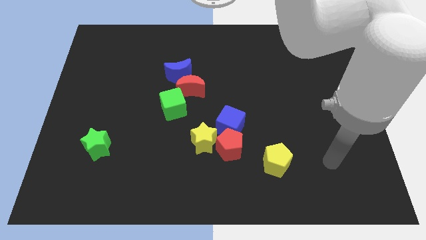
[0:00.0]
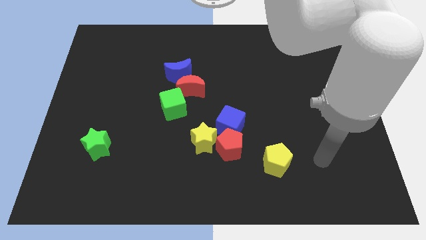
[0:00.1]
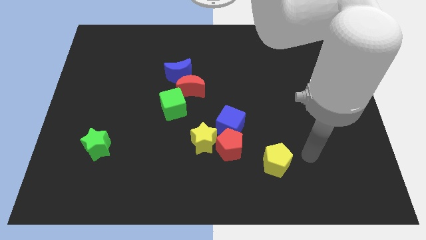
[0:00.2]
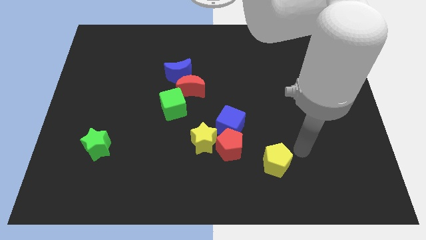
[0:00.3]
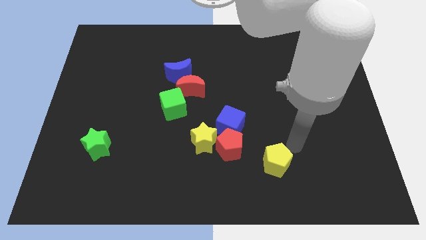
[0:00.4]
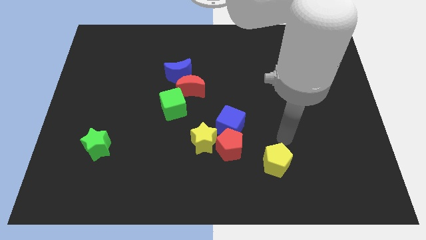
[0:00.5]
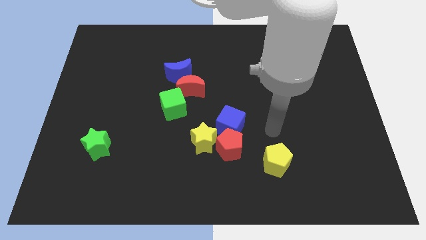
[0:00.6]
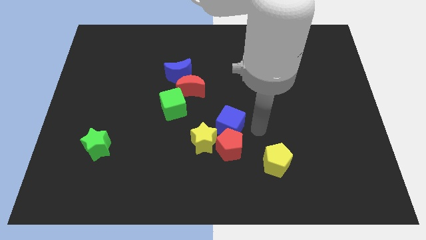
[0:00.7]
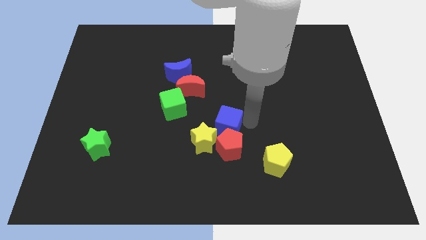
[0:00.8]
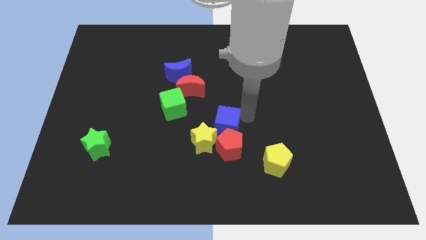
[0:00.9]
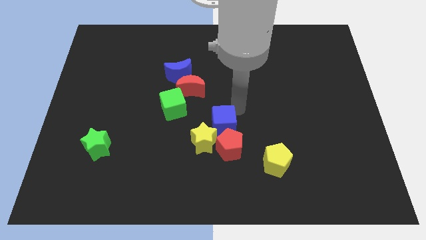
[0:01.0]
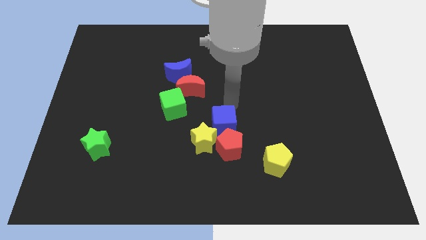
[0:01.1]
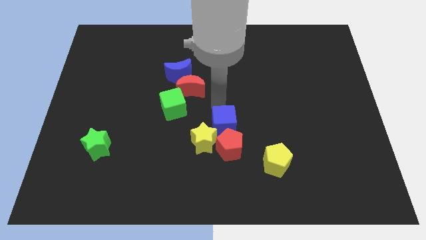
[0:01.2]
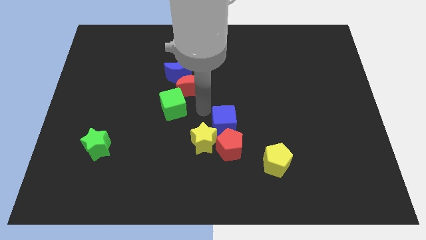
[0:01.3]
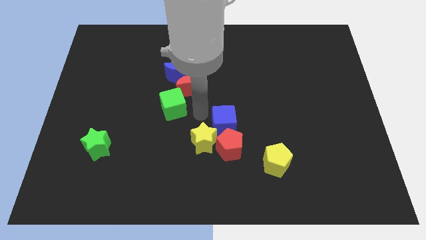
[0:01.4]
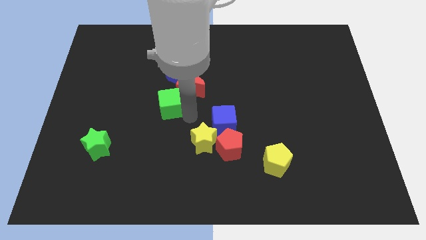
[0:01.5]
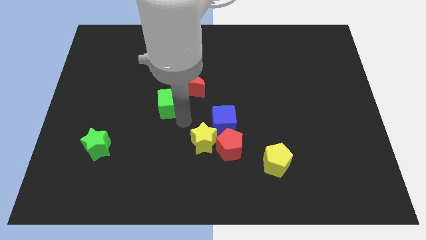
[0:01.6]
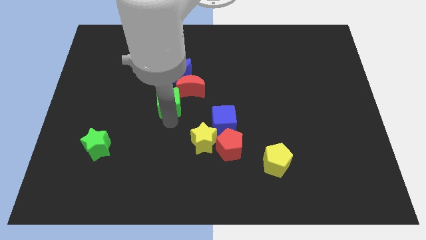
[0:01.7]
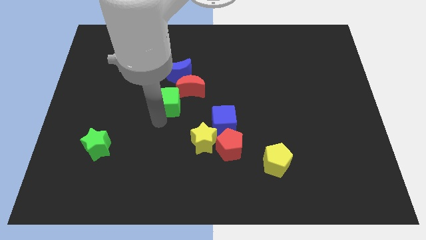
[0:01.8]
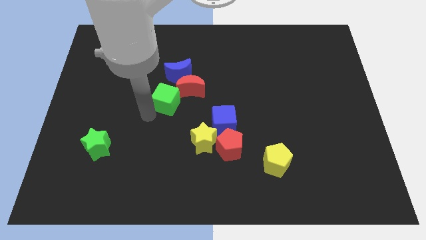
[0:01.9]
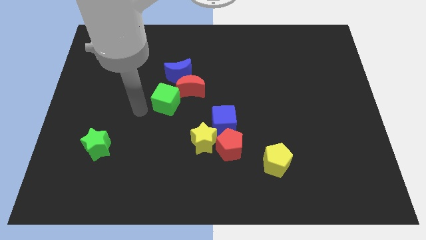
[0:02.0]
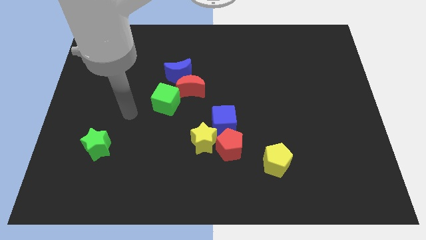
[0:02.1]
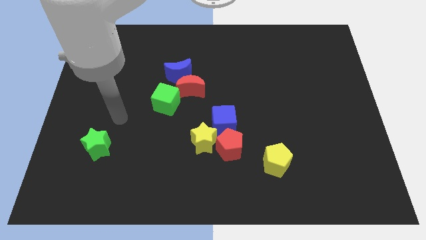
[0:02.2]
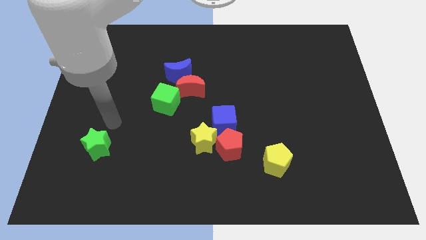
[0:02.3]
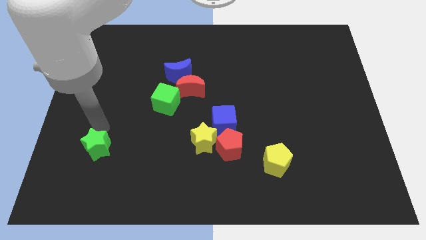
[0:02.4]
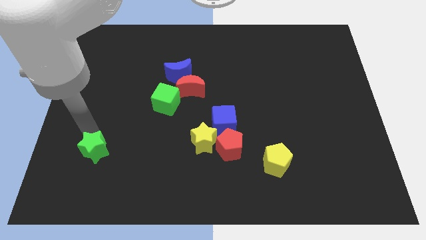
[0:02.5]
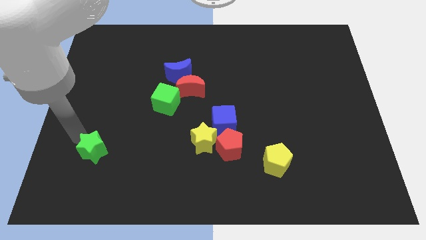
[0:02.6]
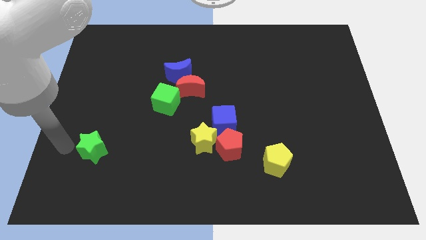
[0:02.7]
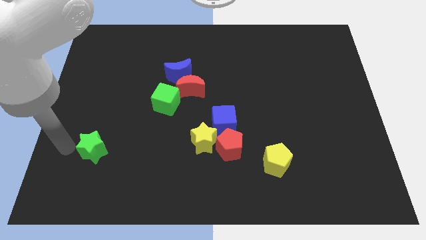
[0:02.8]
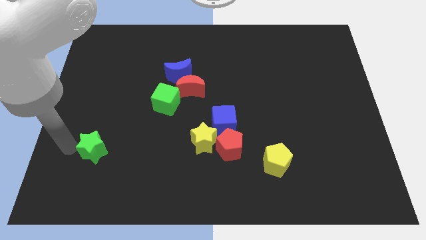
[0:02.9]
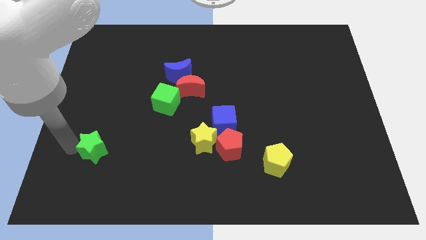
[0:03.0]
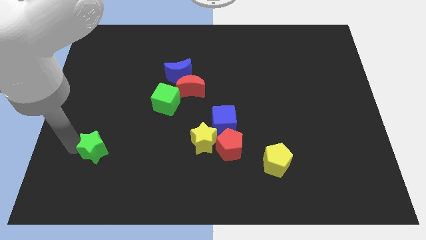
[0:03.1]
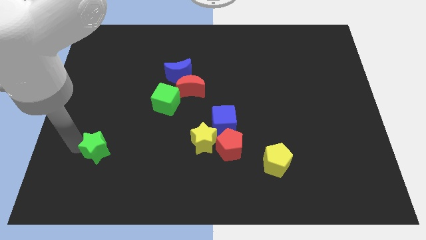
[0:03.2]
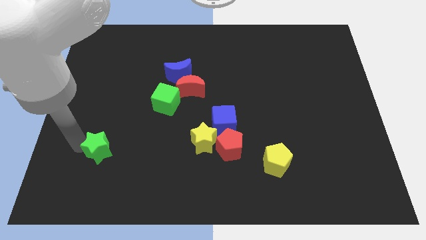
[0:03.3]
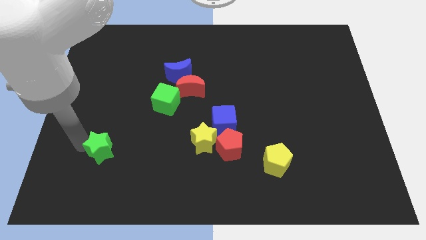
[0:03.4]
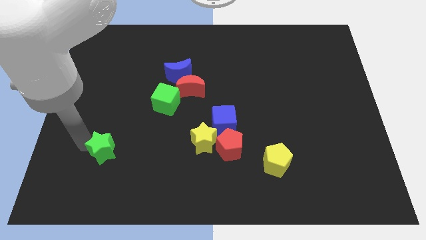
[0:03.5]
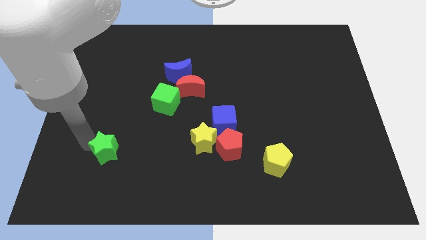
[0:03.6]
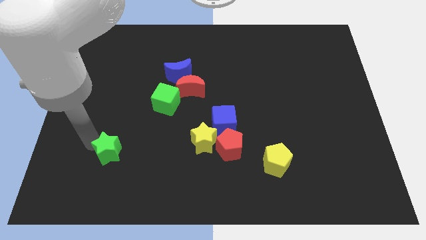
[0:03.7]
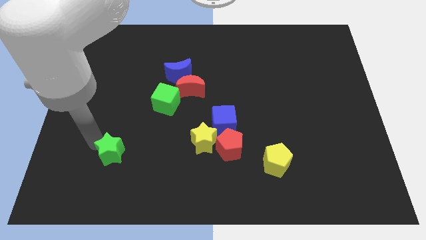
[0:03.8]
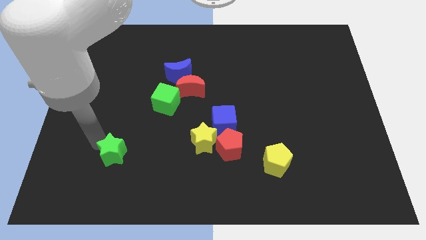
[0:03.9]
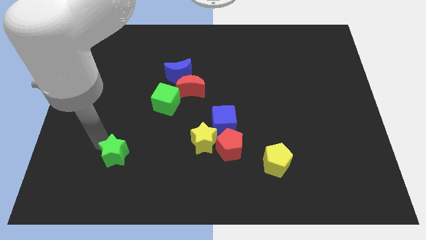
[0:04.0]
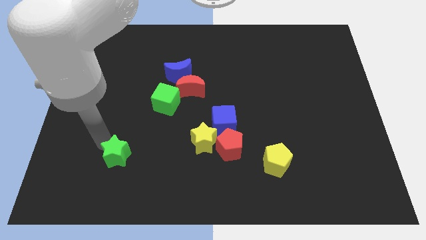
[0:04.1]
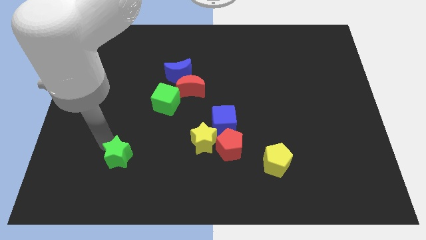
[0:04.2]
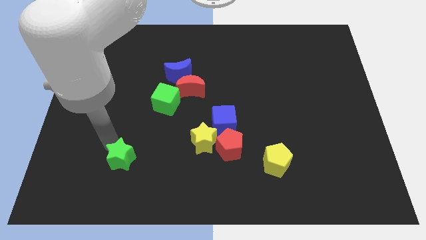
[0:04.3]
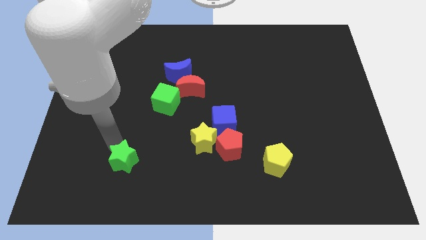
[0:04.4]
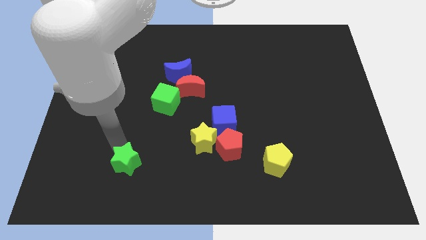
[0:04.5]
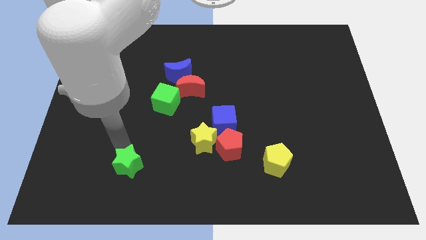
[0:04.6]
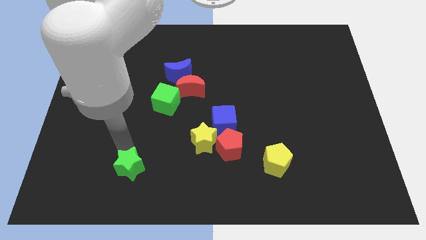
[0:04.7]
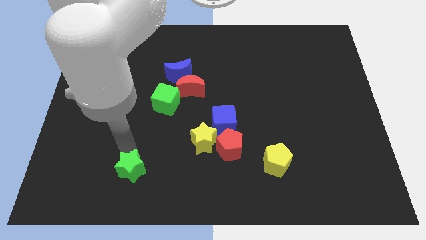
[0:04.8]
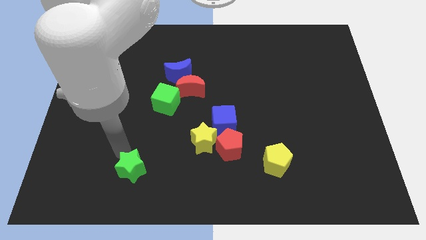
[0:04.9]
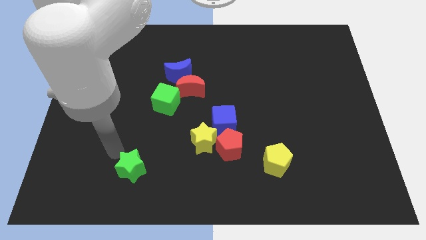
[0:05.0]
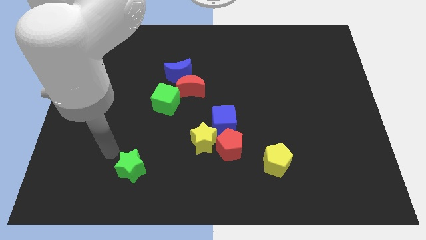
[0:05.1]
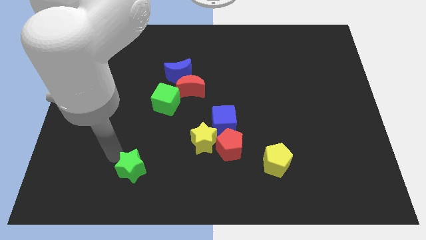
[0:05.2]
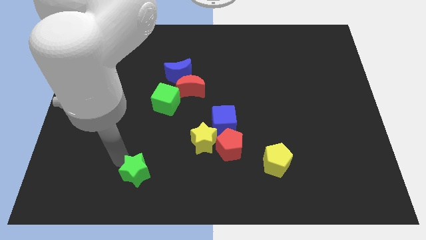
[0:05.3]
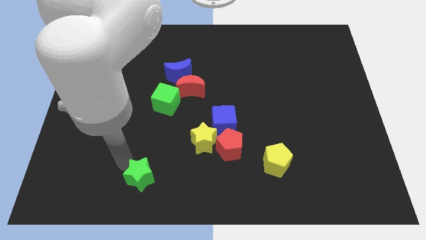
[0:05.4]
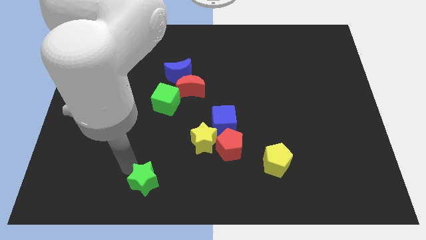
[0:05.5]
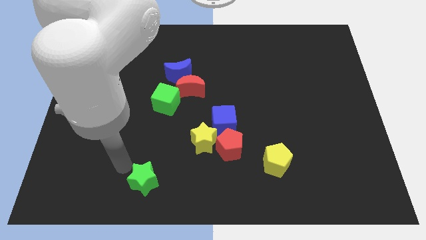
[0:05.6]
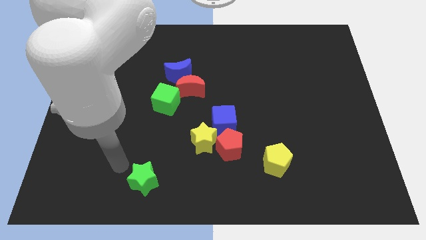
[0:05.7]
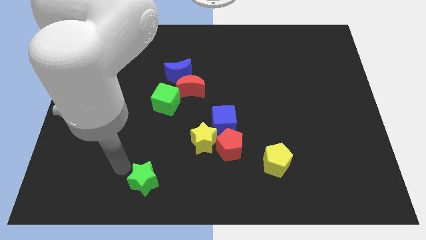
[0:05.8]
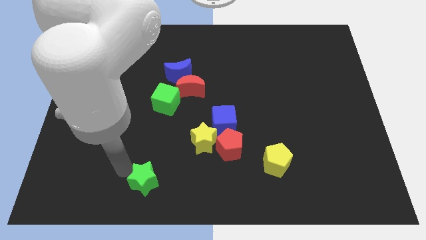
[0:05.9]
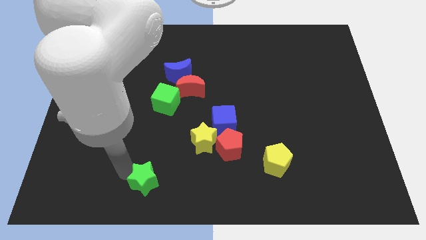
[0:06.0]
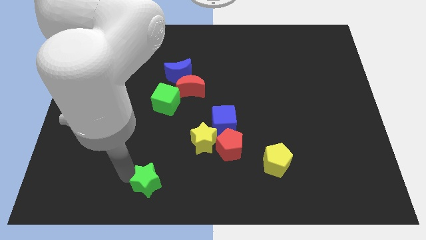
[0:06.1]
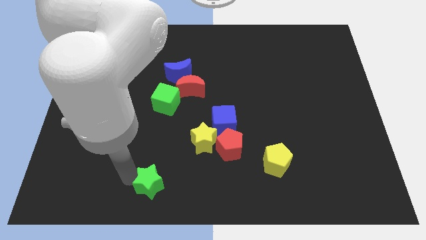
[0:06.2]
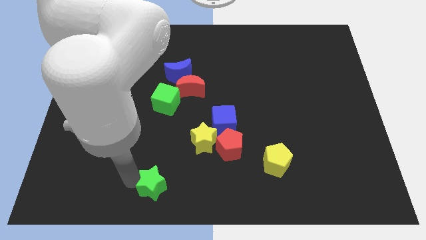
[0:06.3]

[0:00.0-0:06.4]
slide the green star to the bottom side

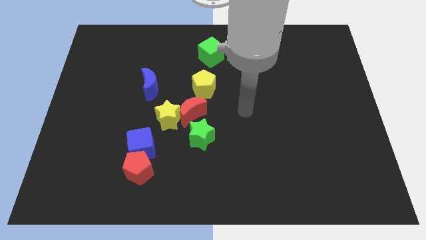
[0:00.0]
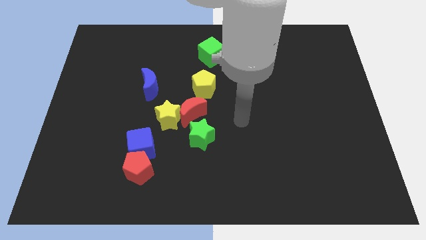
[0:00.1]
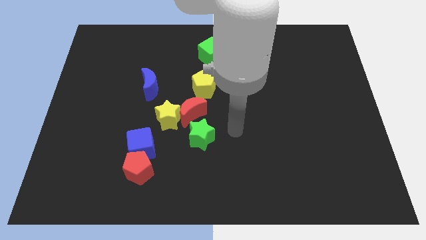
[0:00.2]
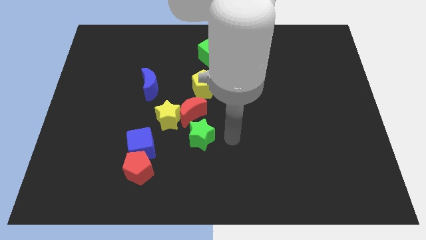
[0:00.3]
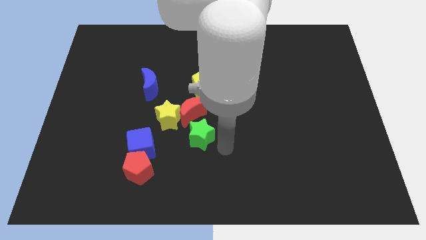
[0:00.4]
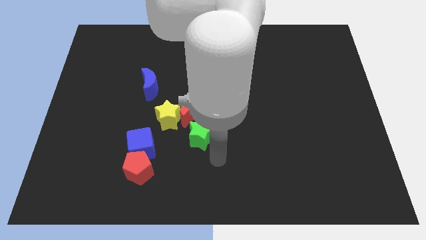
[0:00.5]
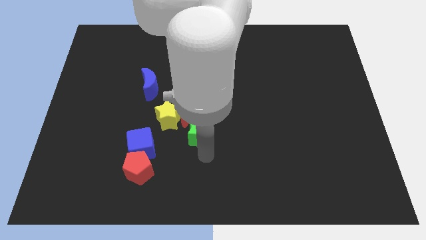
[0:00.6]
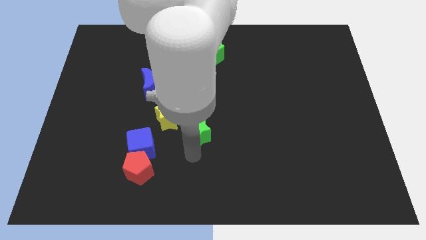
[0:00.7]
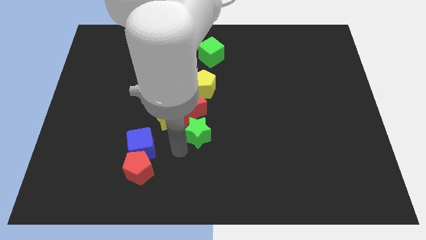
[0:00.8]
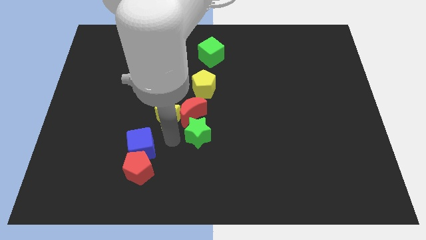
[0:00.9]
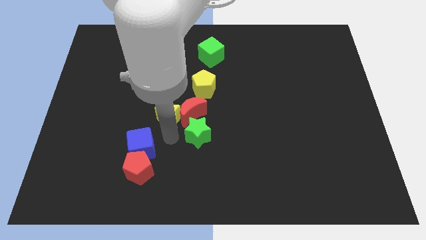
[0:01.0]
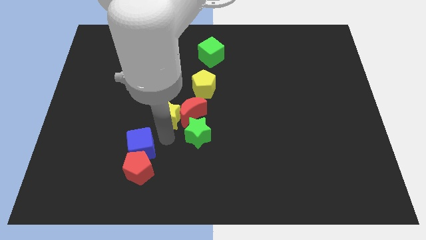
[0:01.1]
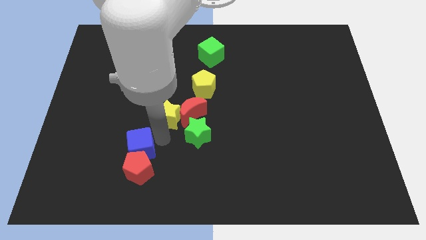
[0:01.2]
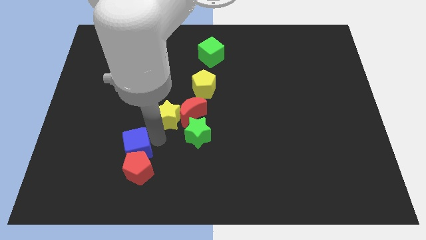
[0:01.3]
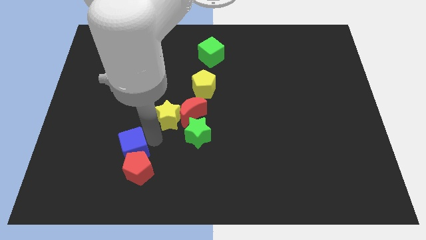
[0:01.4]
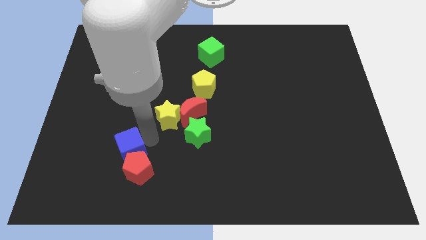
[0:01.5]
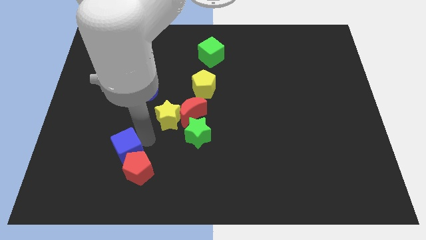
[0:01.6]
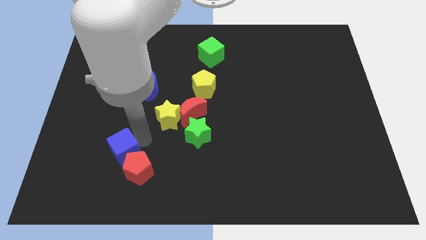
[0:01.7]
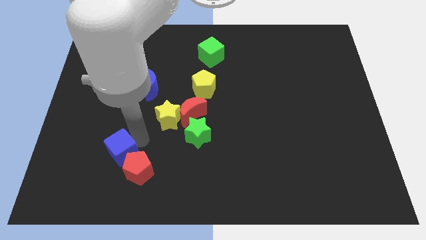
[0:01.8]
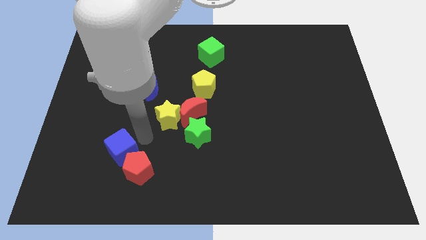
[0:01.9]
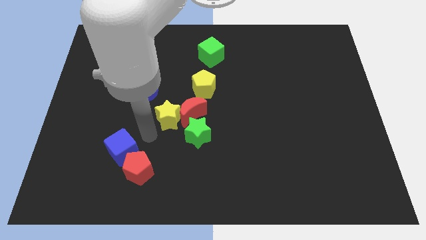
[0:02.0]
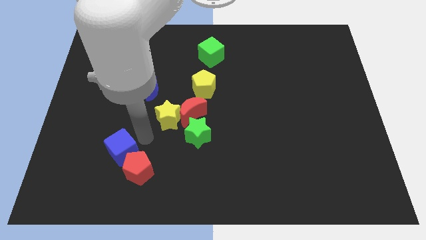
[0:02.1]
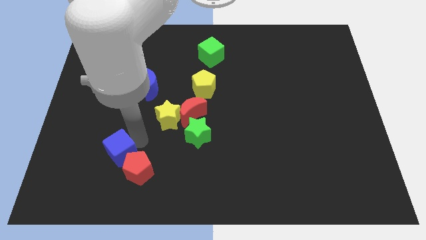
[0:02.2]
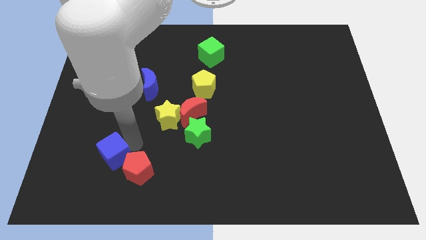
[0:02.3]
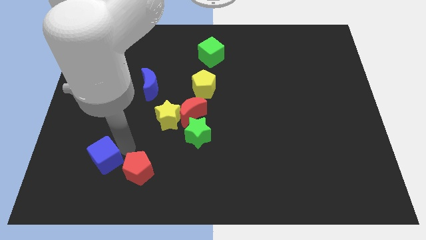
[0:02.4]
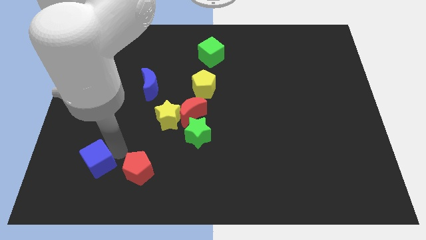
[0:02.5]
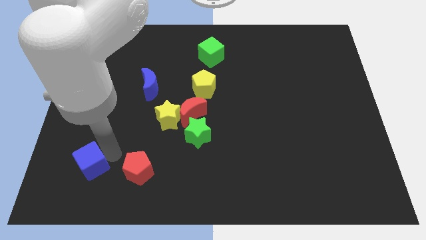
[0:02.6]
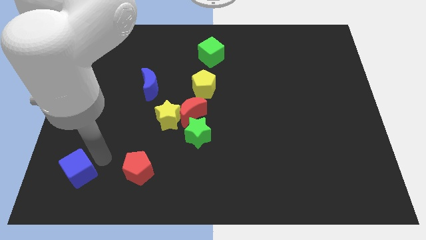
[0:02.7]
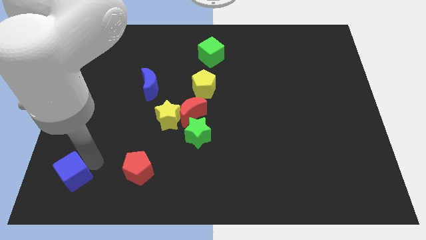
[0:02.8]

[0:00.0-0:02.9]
move the blue cube to the lower left corner
